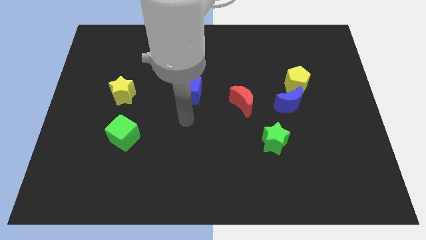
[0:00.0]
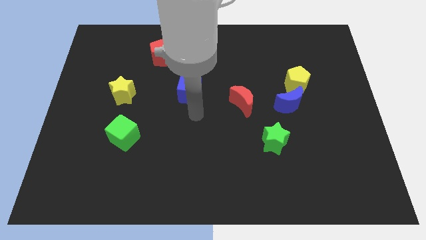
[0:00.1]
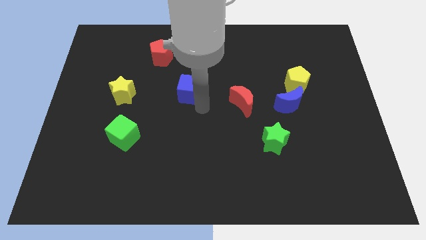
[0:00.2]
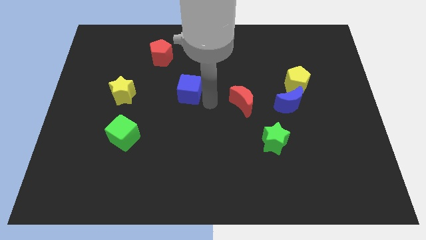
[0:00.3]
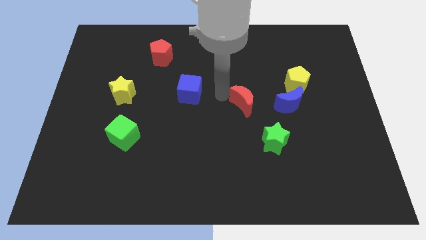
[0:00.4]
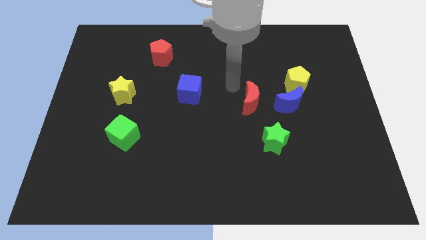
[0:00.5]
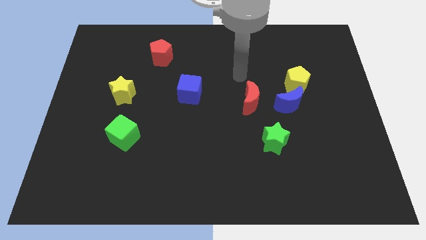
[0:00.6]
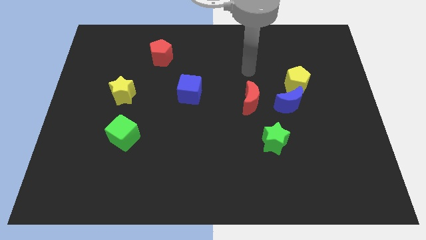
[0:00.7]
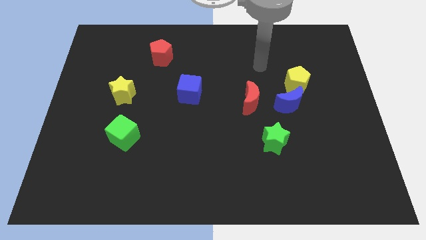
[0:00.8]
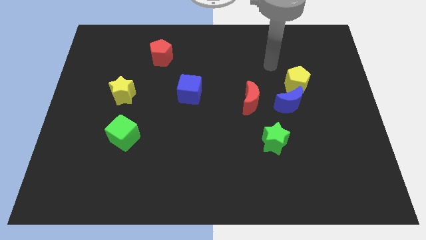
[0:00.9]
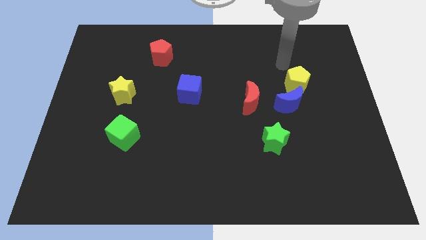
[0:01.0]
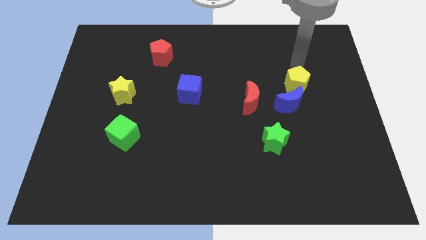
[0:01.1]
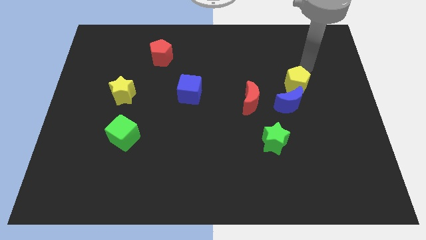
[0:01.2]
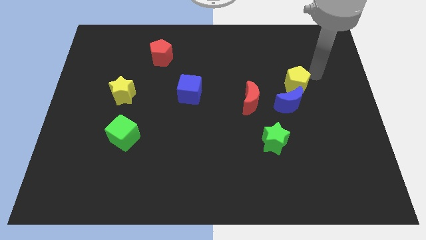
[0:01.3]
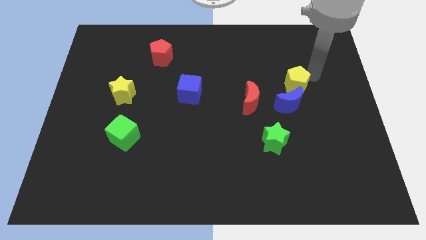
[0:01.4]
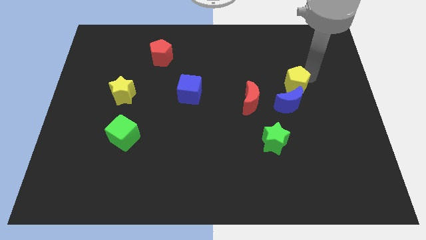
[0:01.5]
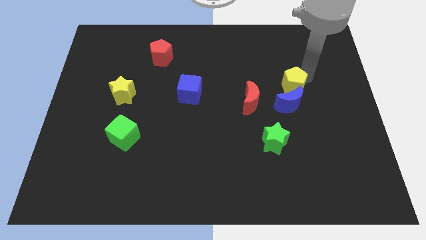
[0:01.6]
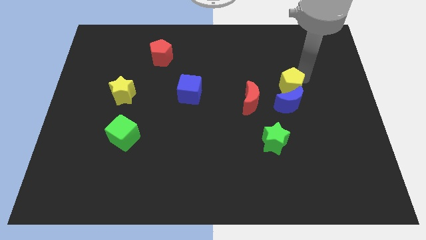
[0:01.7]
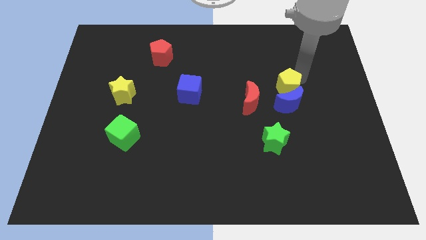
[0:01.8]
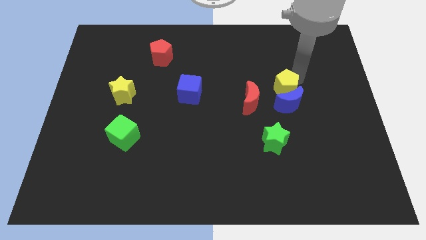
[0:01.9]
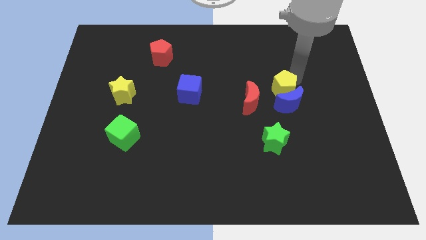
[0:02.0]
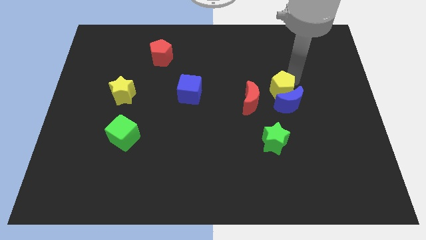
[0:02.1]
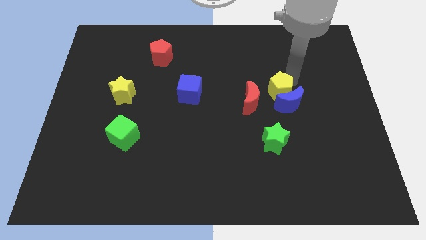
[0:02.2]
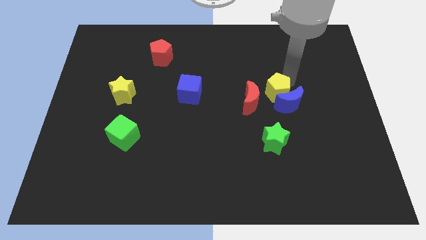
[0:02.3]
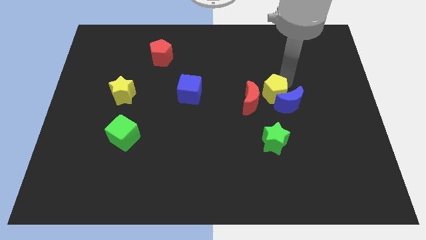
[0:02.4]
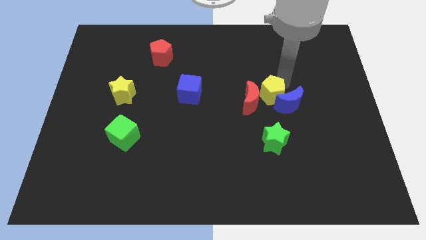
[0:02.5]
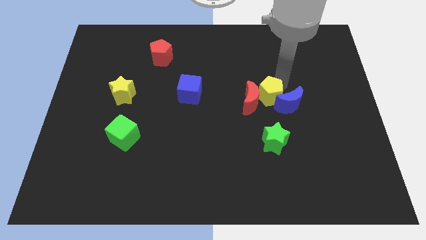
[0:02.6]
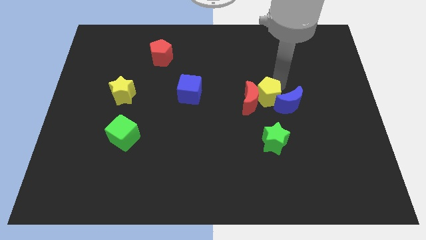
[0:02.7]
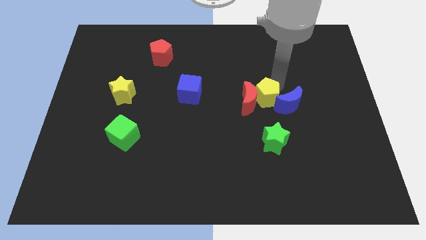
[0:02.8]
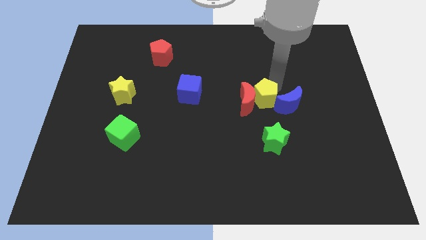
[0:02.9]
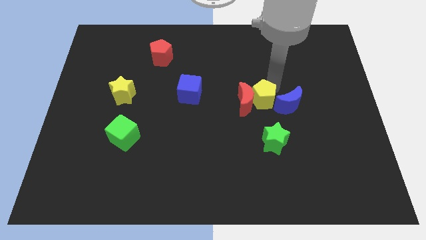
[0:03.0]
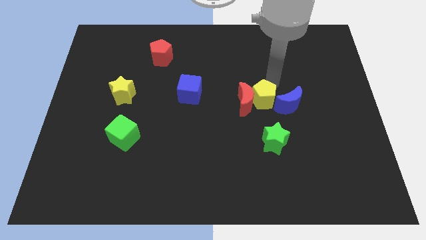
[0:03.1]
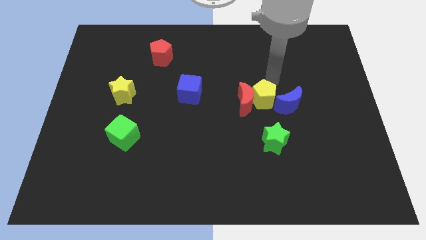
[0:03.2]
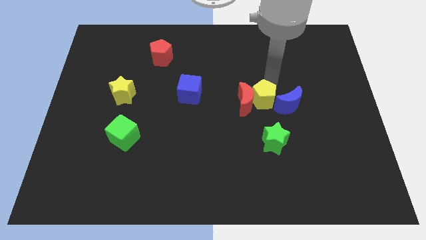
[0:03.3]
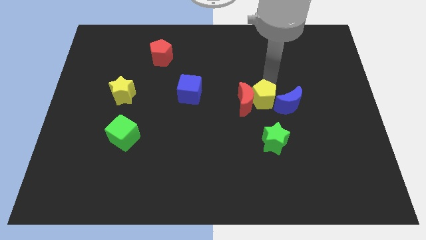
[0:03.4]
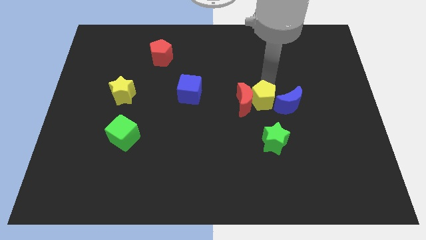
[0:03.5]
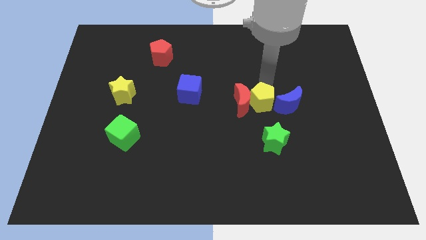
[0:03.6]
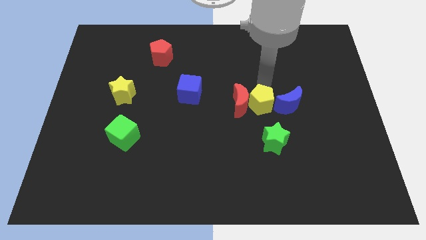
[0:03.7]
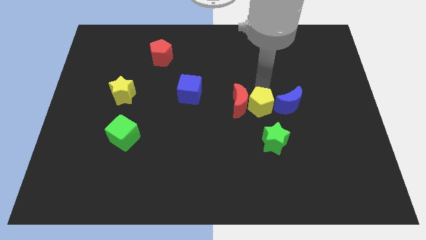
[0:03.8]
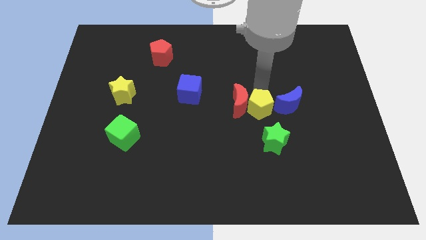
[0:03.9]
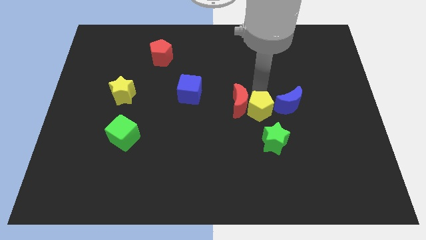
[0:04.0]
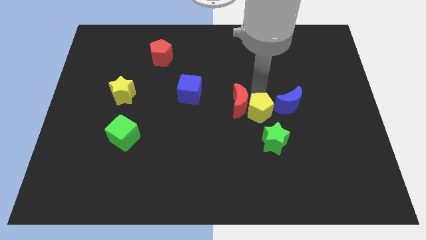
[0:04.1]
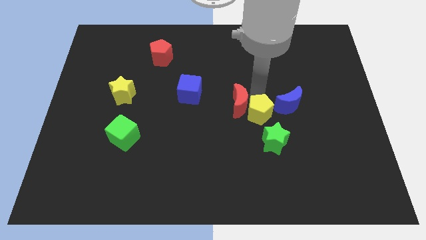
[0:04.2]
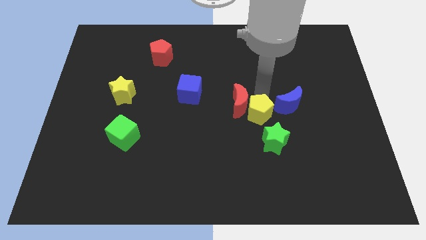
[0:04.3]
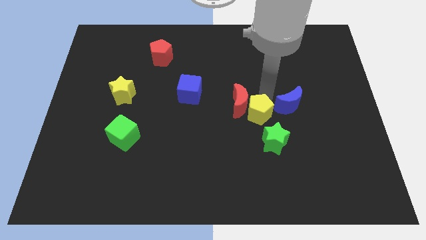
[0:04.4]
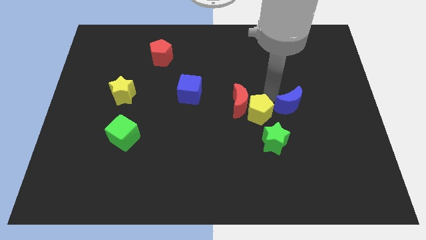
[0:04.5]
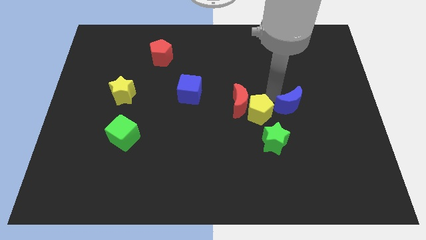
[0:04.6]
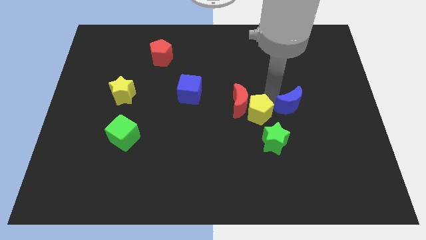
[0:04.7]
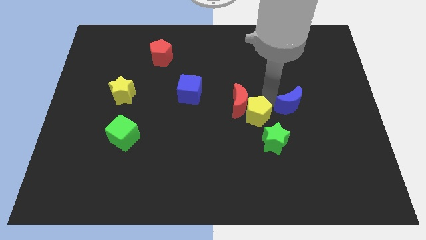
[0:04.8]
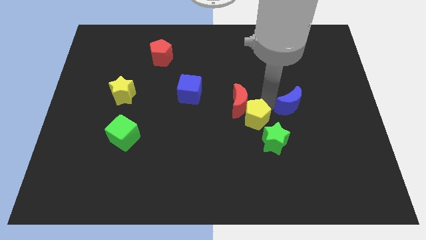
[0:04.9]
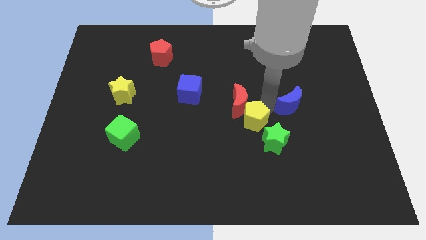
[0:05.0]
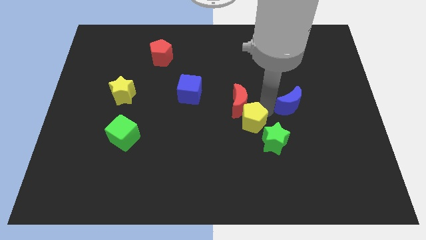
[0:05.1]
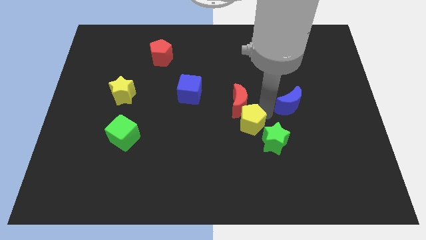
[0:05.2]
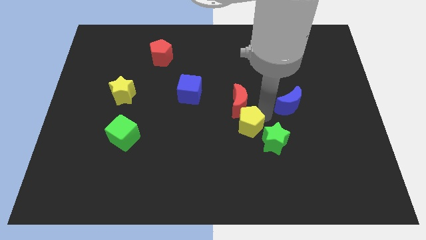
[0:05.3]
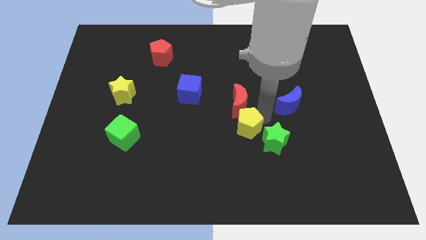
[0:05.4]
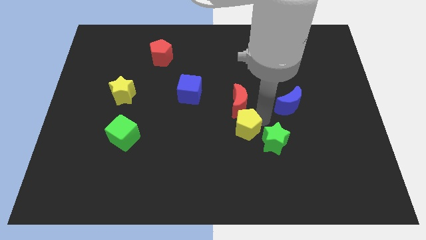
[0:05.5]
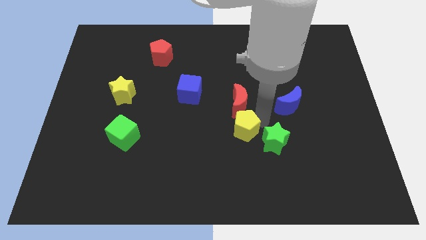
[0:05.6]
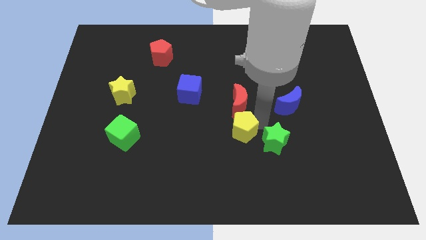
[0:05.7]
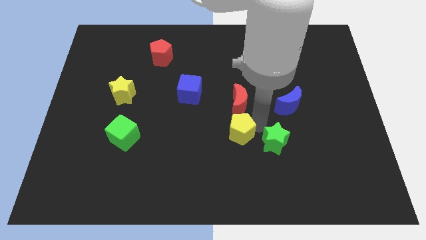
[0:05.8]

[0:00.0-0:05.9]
slide the yellow pentagon diagonally downwards and left

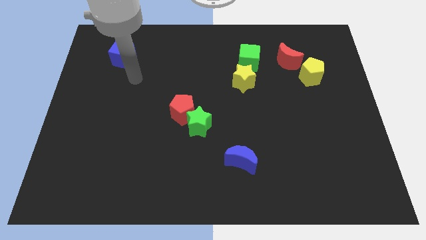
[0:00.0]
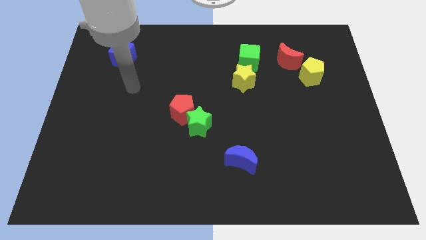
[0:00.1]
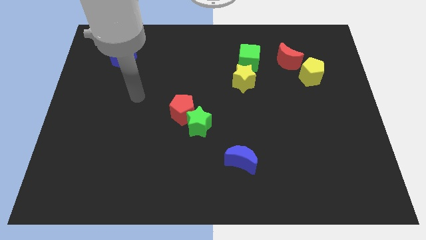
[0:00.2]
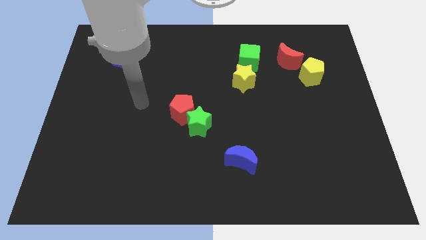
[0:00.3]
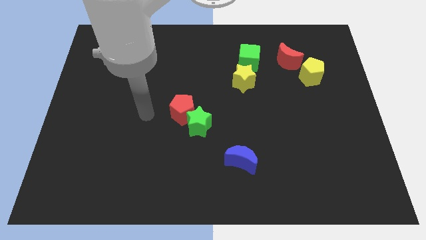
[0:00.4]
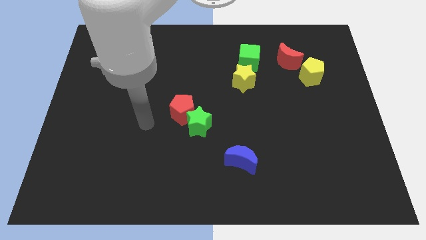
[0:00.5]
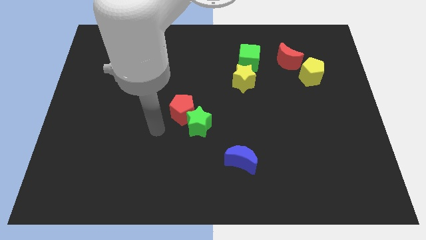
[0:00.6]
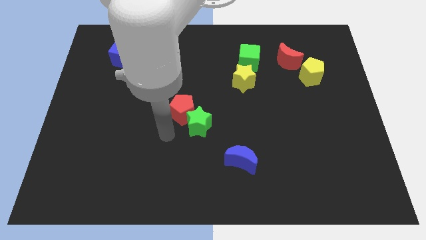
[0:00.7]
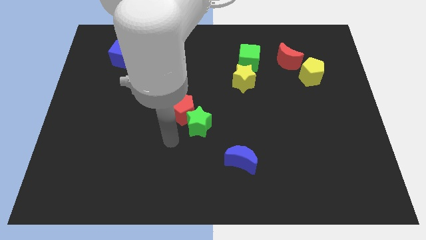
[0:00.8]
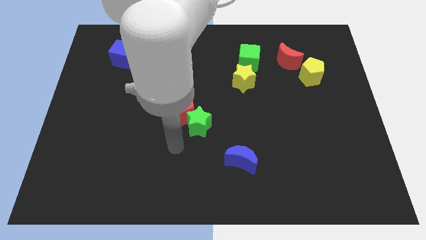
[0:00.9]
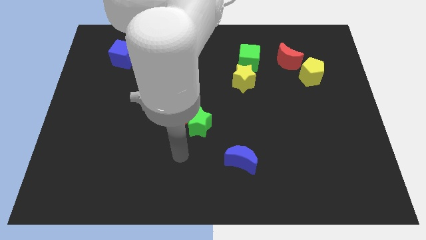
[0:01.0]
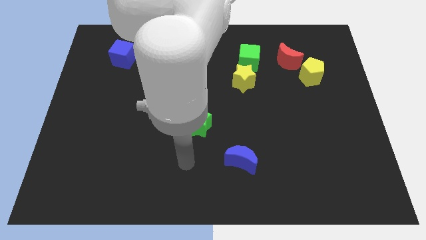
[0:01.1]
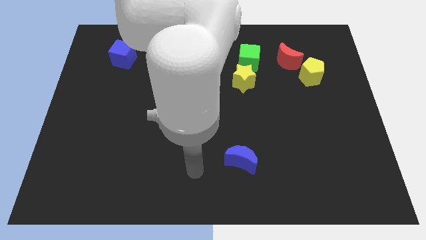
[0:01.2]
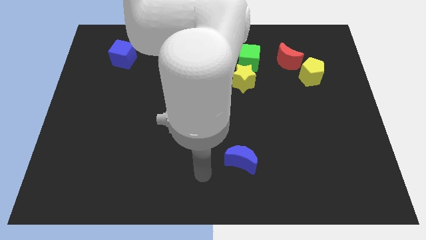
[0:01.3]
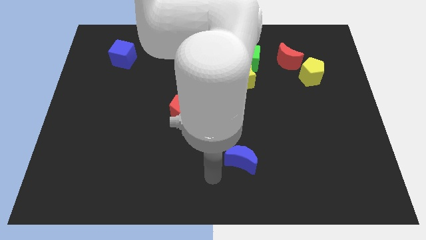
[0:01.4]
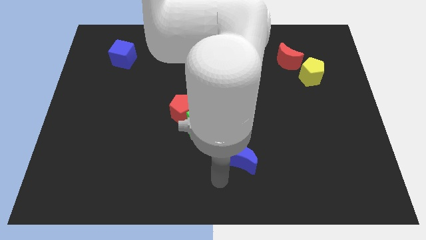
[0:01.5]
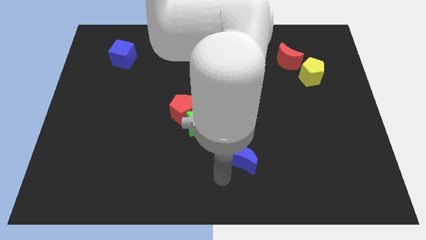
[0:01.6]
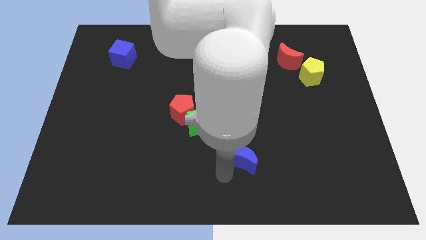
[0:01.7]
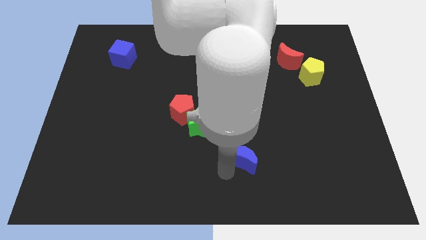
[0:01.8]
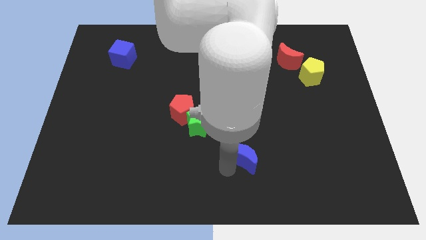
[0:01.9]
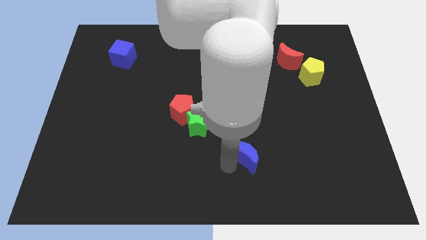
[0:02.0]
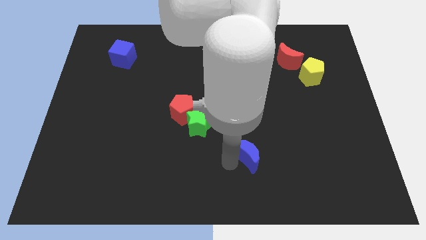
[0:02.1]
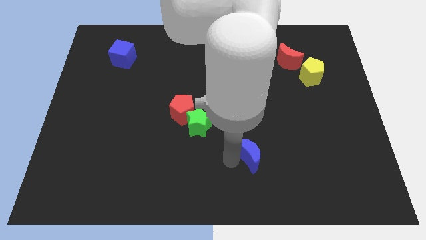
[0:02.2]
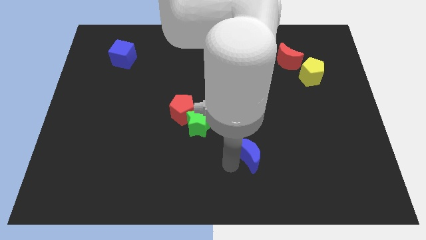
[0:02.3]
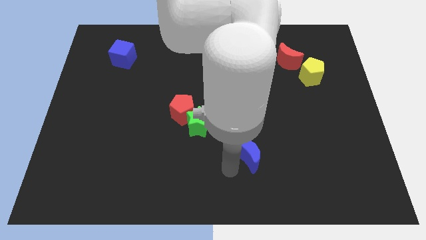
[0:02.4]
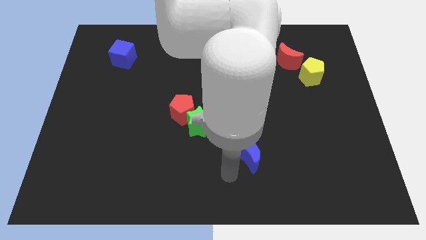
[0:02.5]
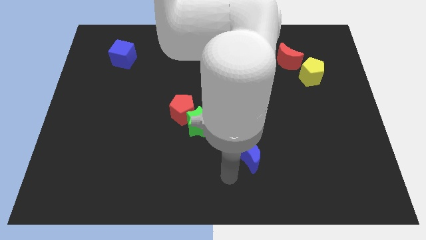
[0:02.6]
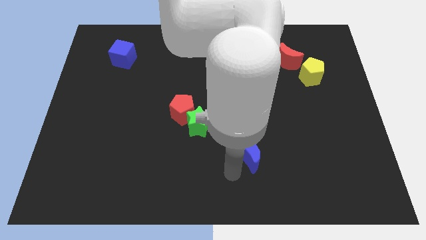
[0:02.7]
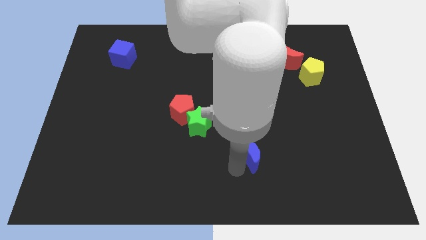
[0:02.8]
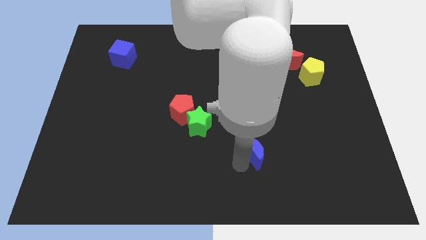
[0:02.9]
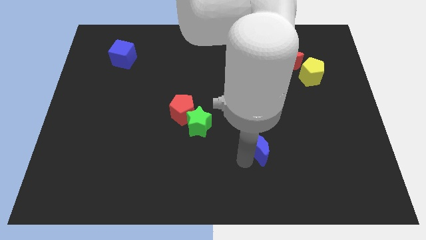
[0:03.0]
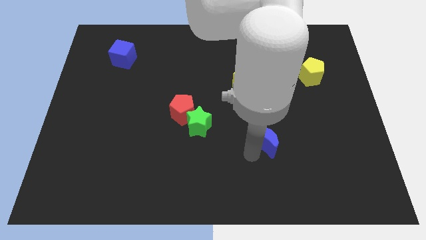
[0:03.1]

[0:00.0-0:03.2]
slide the blue moon a bit diagonally up and right
